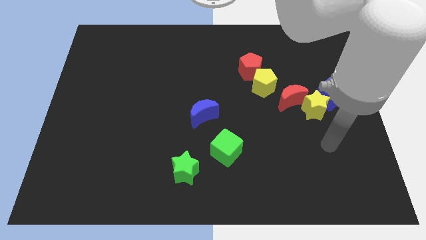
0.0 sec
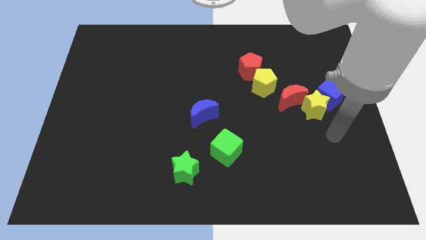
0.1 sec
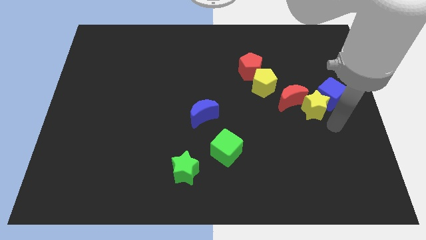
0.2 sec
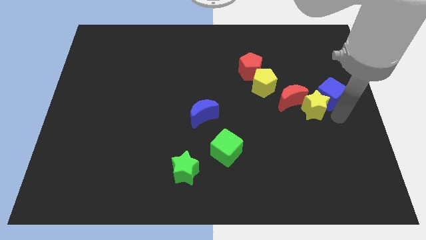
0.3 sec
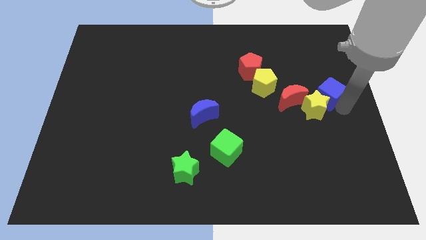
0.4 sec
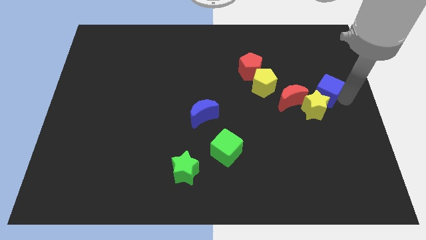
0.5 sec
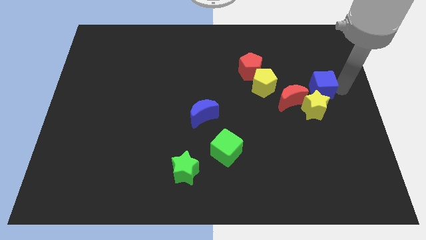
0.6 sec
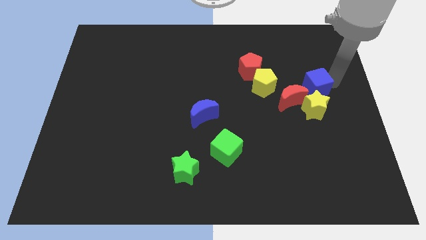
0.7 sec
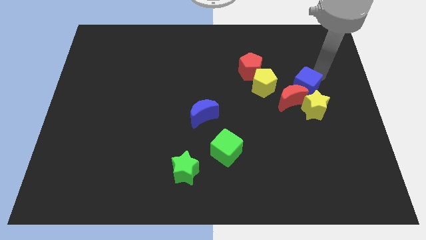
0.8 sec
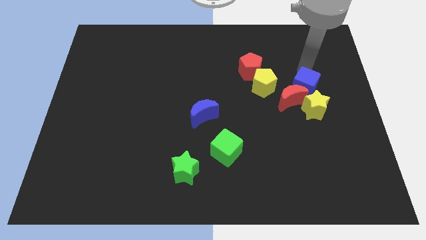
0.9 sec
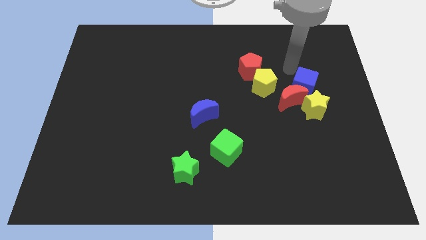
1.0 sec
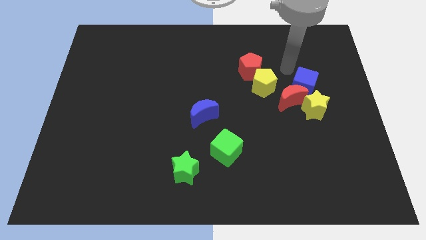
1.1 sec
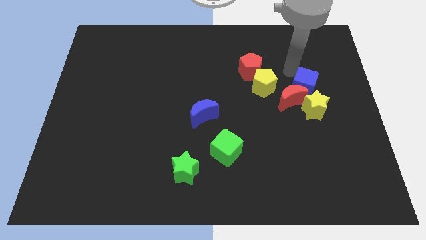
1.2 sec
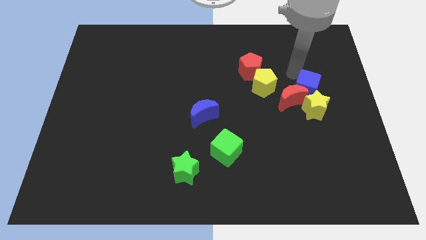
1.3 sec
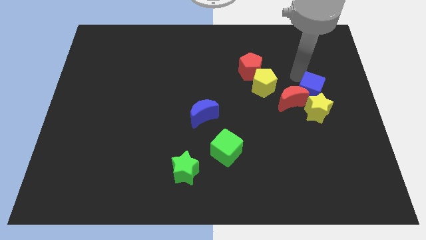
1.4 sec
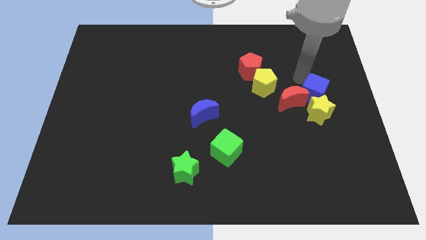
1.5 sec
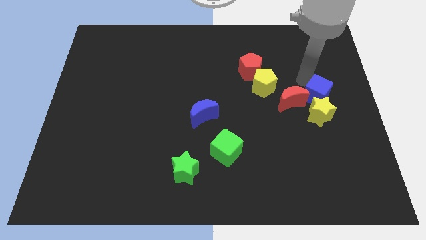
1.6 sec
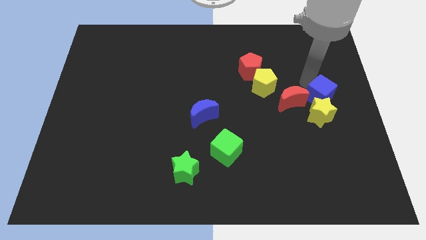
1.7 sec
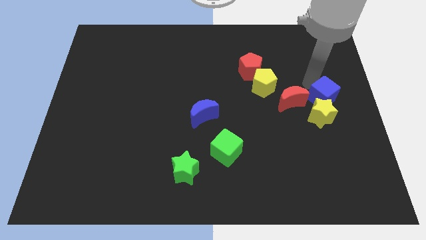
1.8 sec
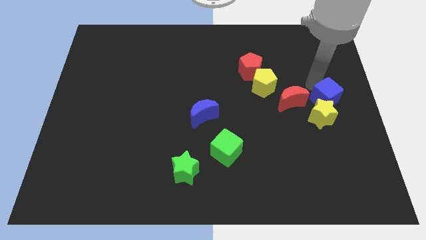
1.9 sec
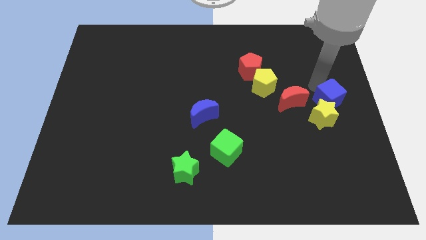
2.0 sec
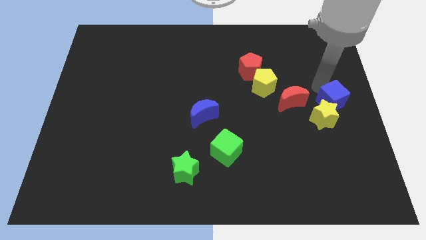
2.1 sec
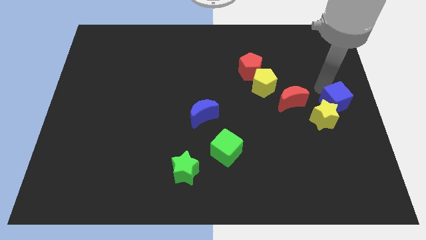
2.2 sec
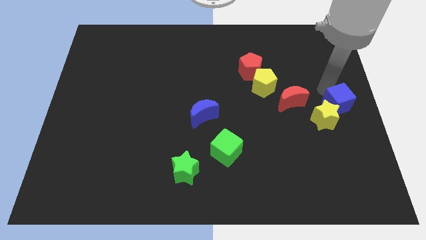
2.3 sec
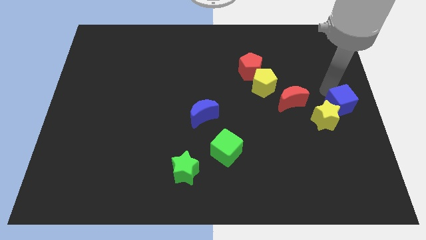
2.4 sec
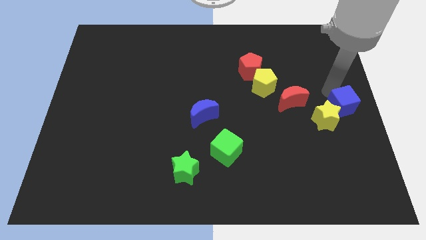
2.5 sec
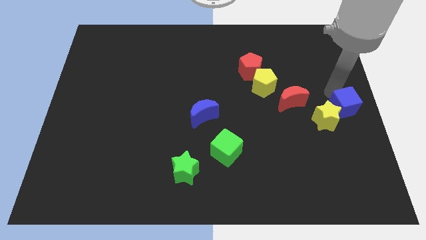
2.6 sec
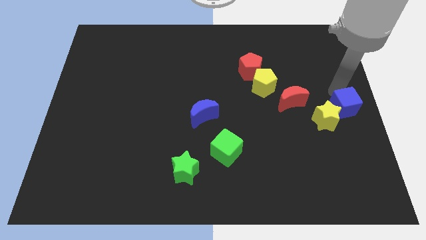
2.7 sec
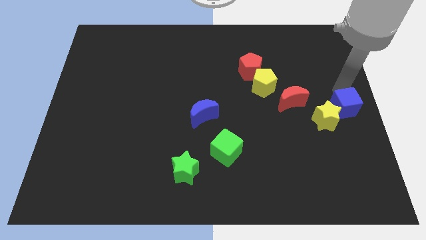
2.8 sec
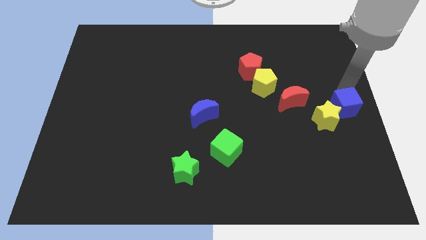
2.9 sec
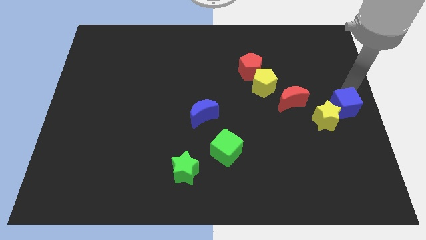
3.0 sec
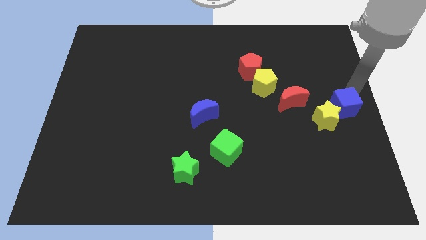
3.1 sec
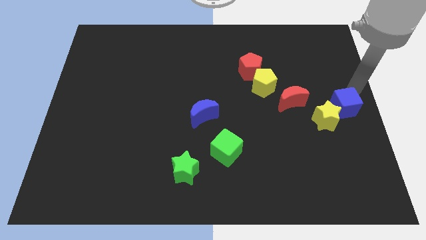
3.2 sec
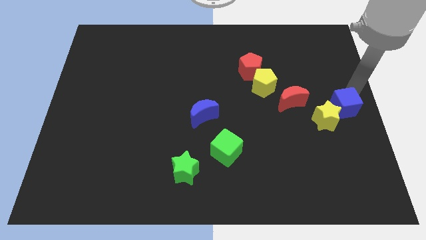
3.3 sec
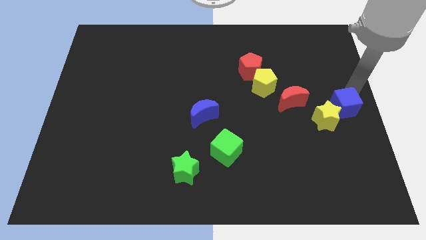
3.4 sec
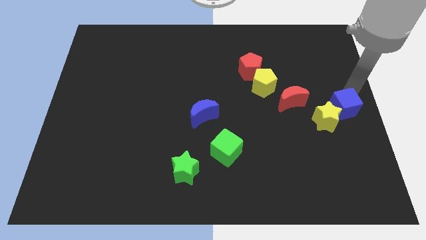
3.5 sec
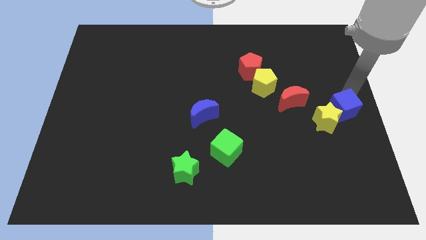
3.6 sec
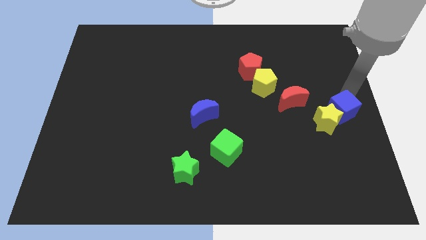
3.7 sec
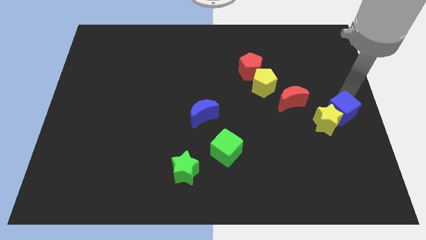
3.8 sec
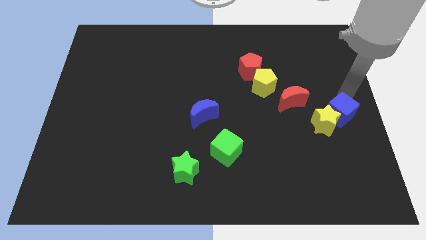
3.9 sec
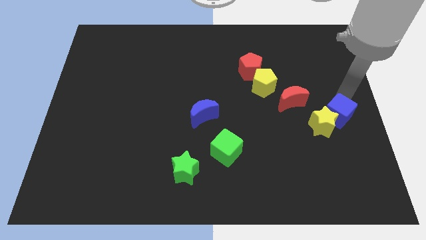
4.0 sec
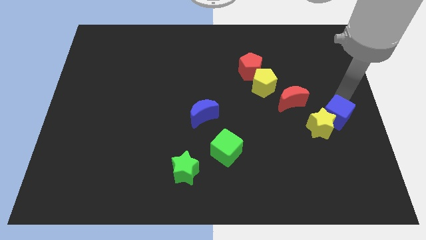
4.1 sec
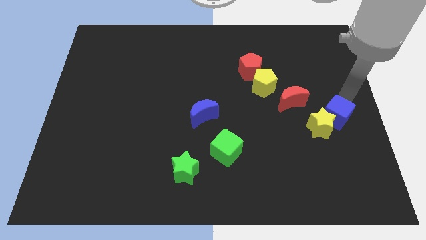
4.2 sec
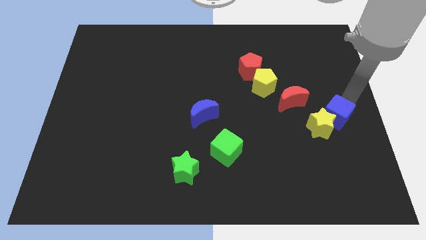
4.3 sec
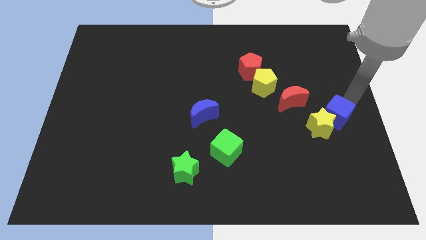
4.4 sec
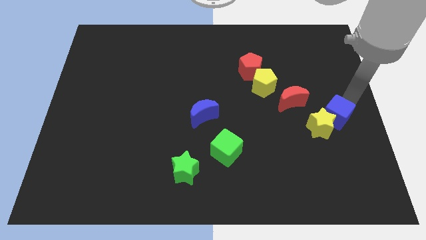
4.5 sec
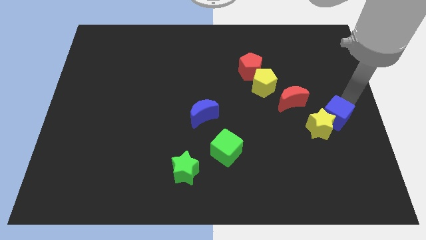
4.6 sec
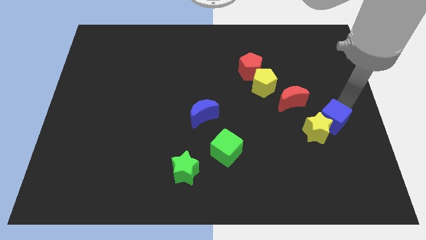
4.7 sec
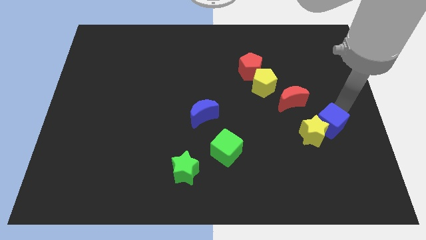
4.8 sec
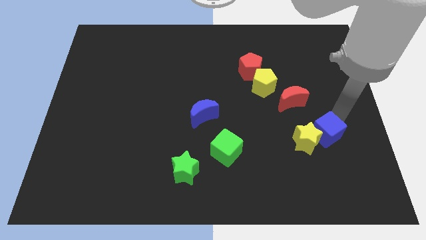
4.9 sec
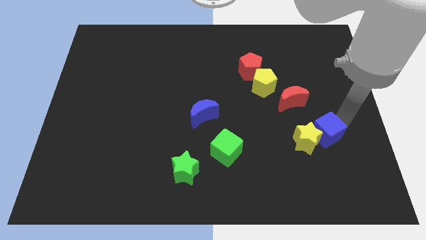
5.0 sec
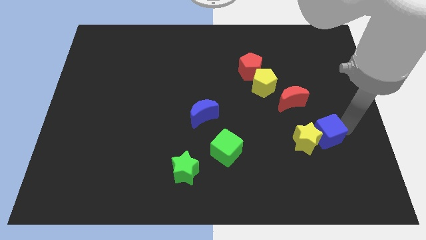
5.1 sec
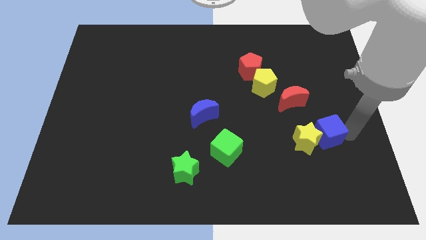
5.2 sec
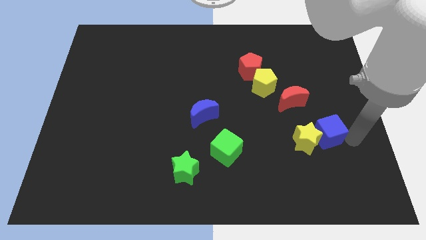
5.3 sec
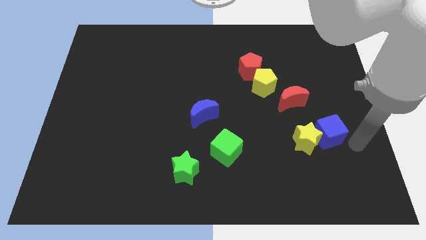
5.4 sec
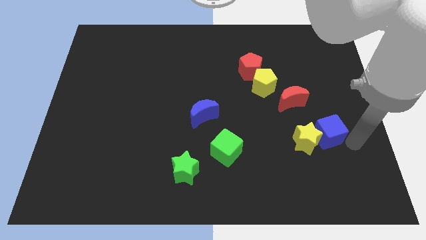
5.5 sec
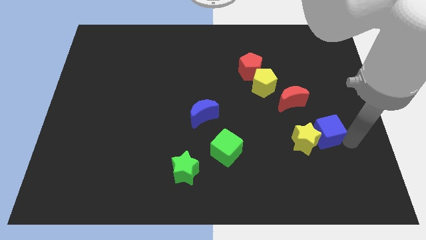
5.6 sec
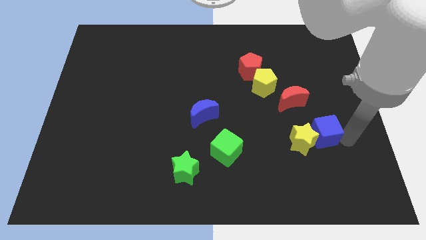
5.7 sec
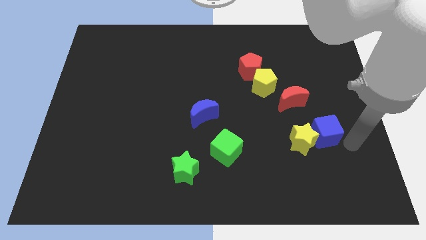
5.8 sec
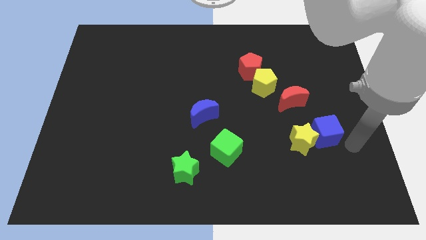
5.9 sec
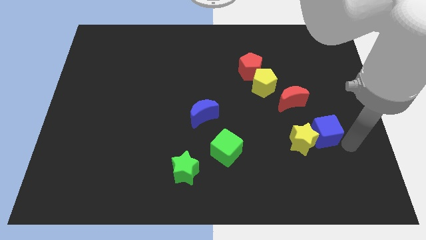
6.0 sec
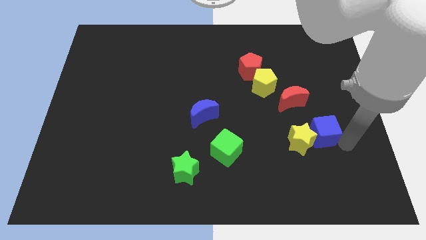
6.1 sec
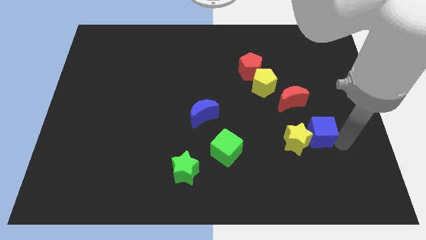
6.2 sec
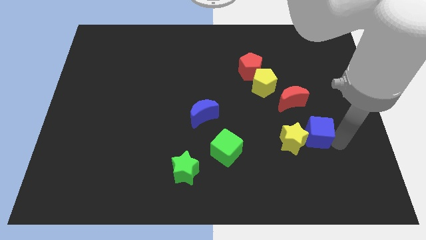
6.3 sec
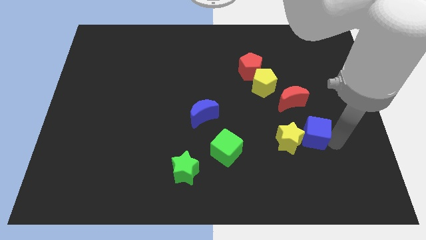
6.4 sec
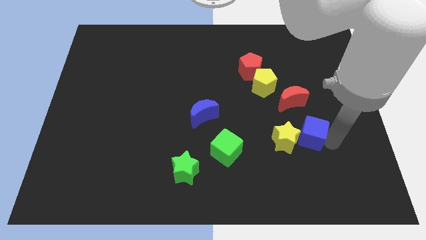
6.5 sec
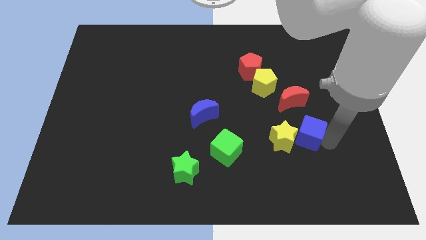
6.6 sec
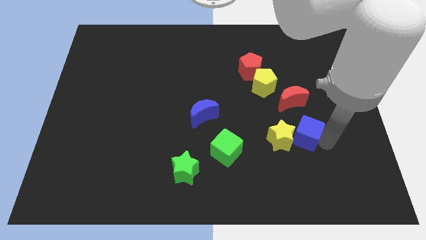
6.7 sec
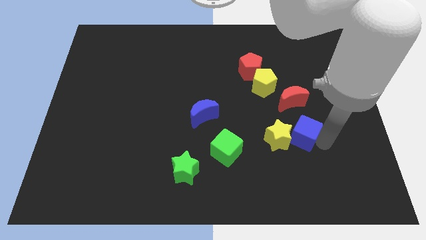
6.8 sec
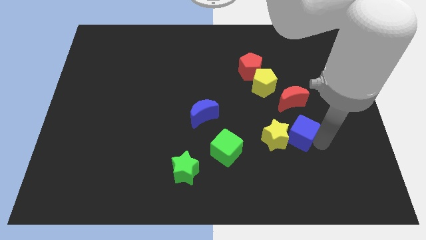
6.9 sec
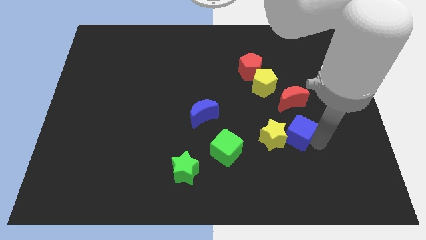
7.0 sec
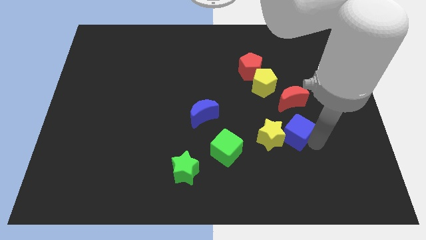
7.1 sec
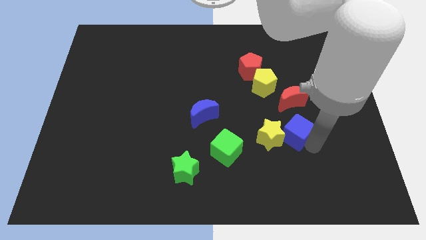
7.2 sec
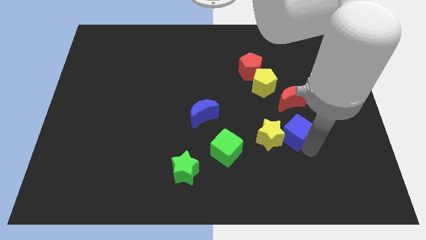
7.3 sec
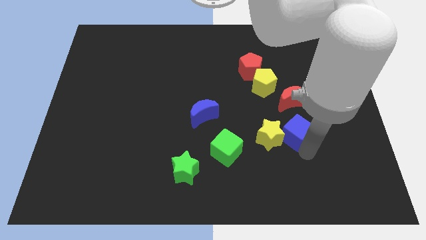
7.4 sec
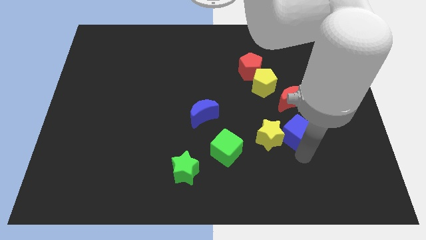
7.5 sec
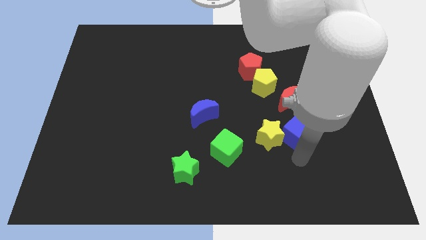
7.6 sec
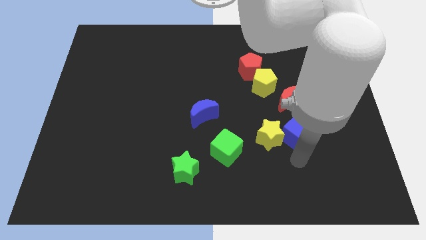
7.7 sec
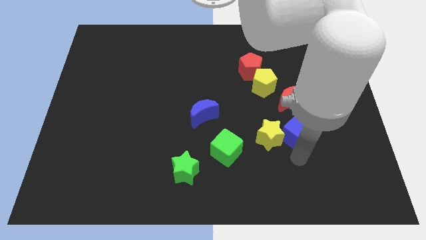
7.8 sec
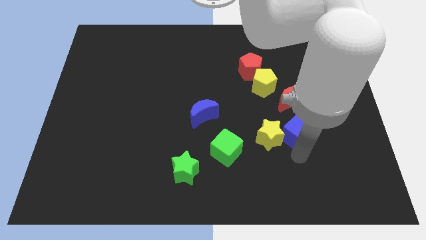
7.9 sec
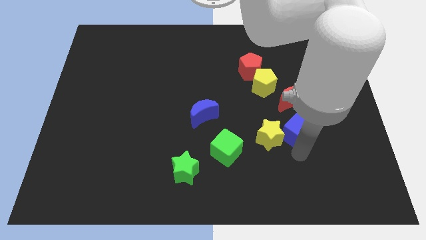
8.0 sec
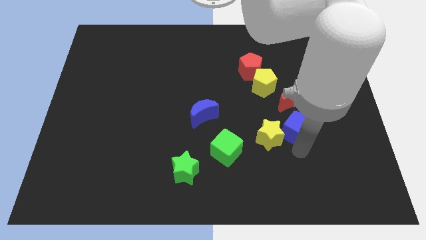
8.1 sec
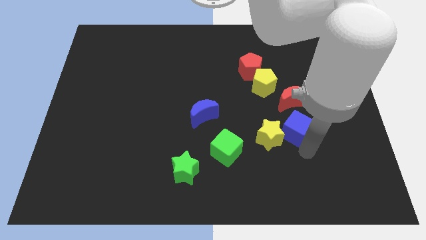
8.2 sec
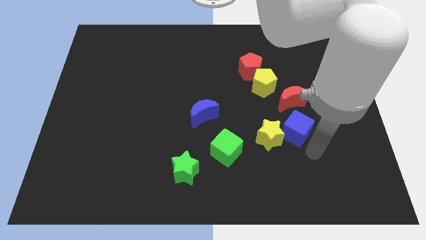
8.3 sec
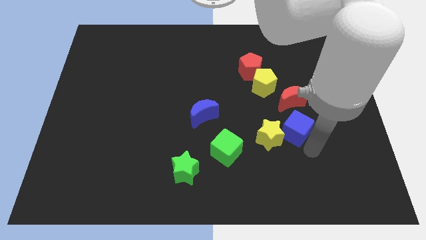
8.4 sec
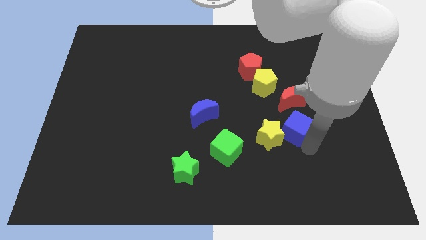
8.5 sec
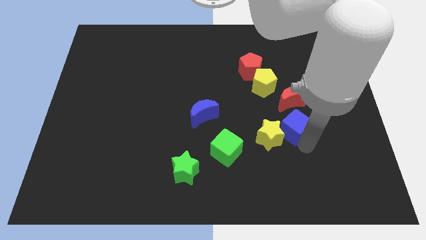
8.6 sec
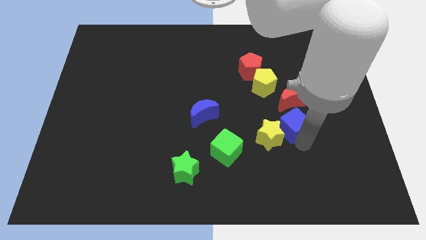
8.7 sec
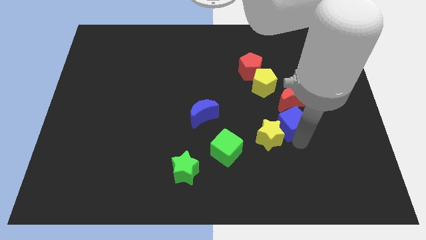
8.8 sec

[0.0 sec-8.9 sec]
slightly slide the blue cube left

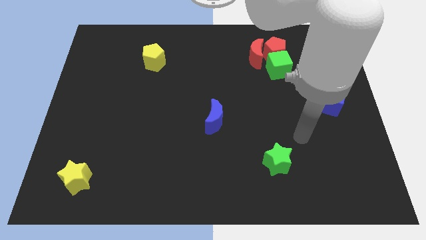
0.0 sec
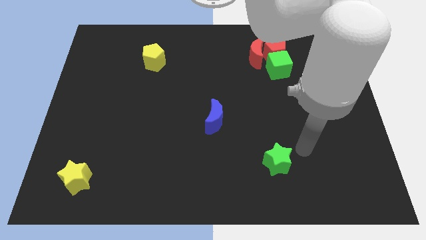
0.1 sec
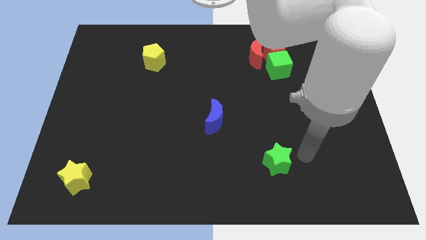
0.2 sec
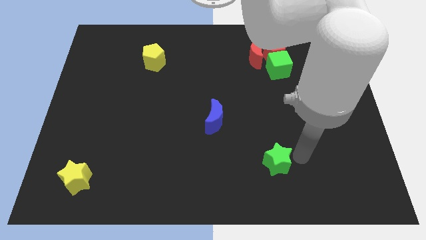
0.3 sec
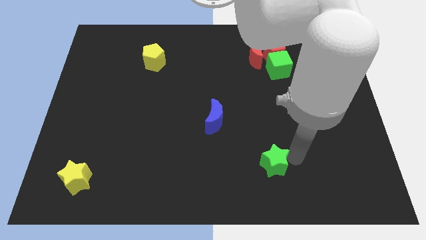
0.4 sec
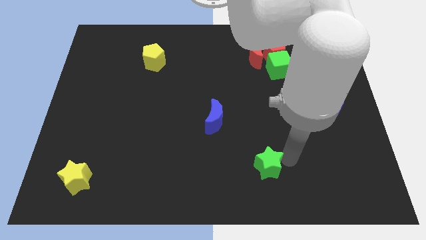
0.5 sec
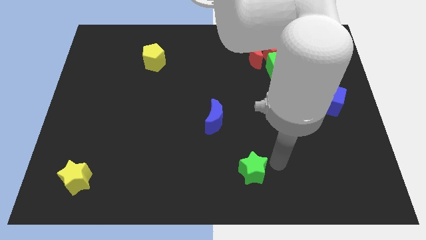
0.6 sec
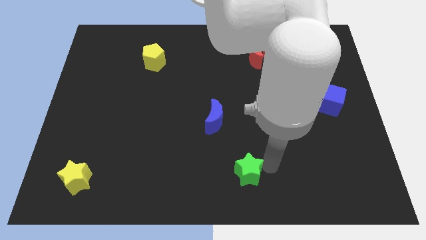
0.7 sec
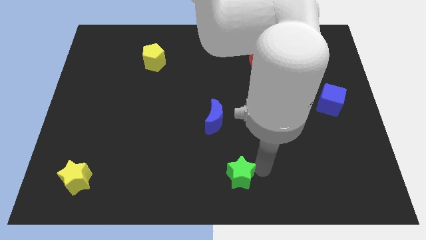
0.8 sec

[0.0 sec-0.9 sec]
move the green star slightly to the left
